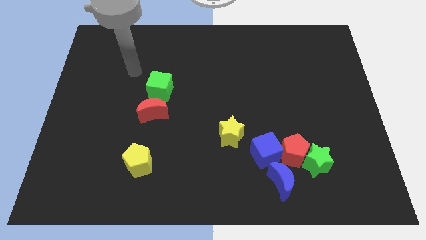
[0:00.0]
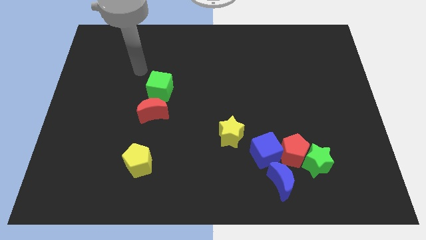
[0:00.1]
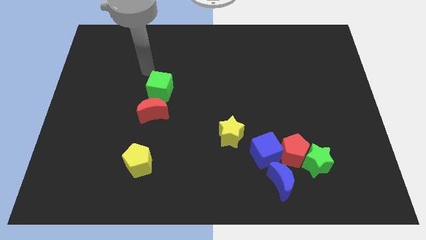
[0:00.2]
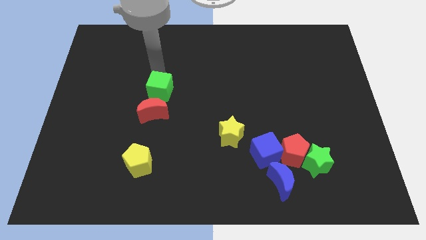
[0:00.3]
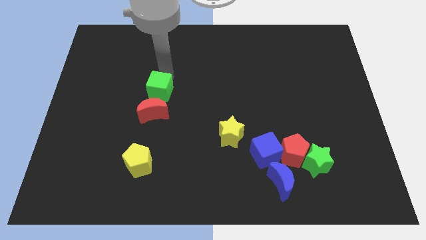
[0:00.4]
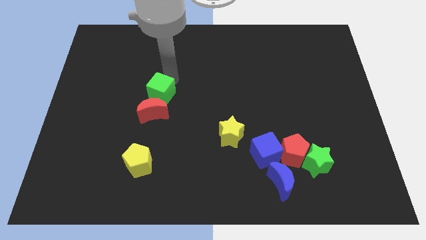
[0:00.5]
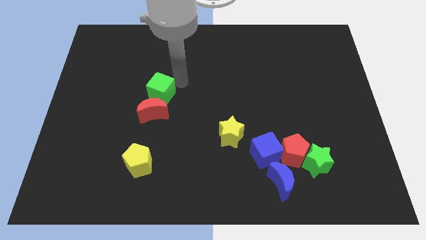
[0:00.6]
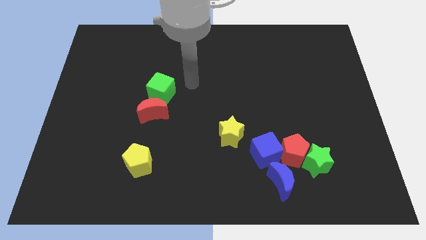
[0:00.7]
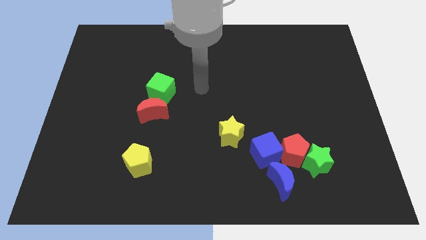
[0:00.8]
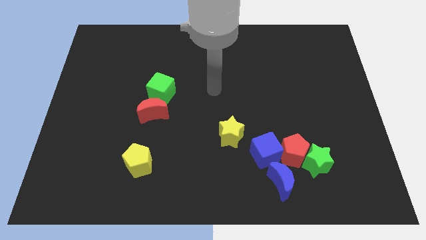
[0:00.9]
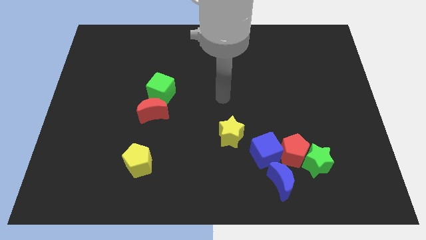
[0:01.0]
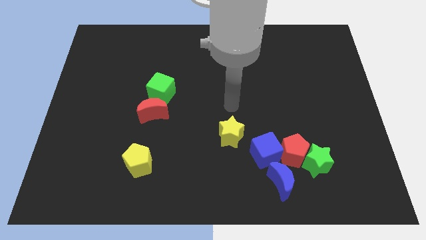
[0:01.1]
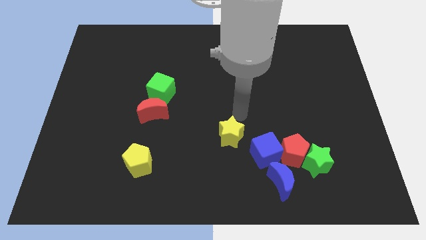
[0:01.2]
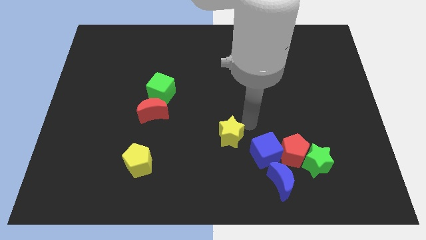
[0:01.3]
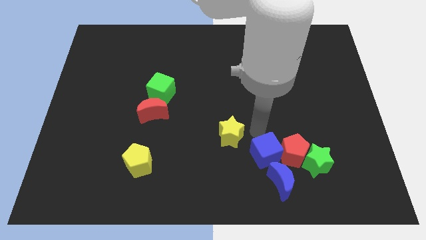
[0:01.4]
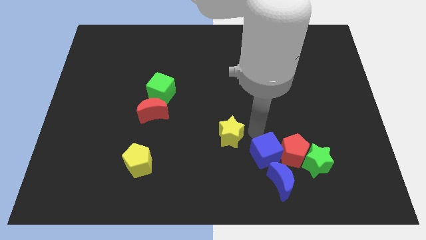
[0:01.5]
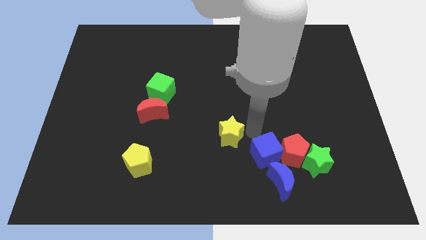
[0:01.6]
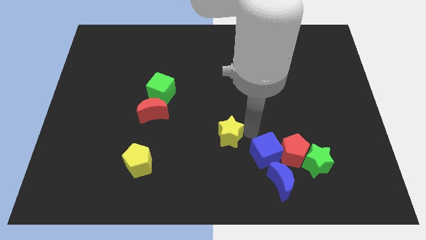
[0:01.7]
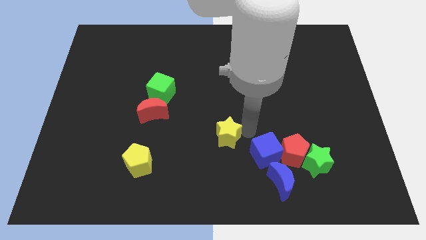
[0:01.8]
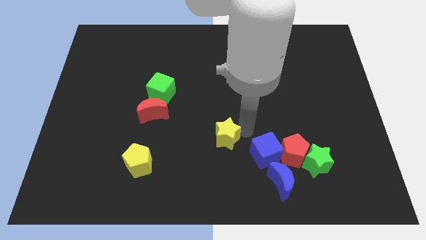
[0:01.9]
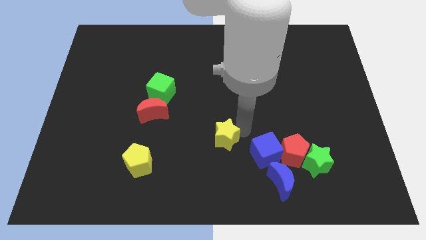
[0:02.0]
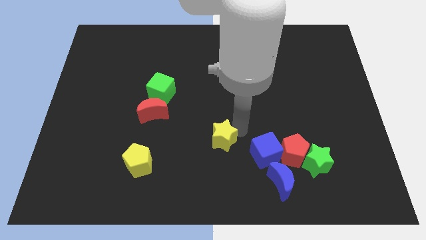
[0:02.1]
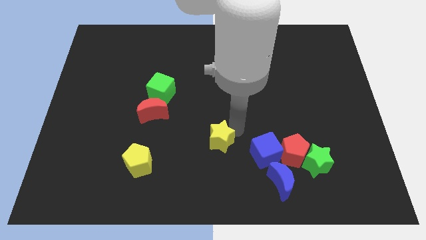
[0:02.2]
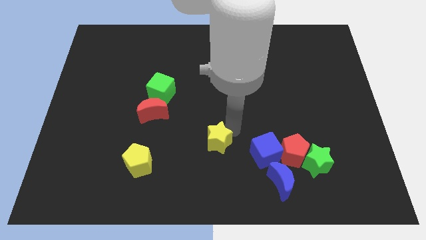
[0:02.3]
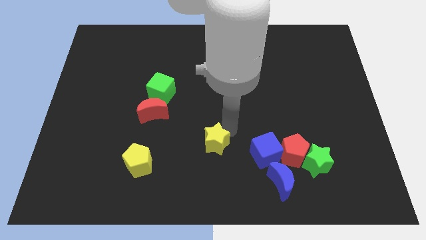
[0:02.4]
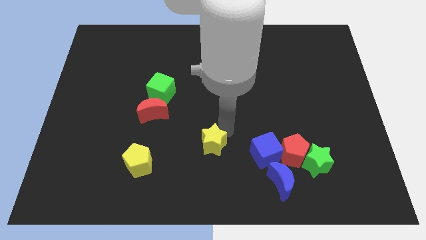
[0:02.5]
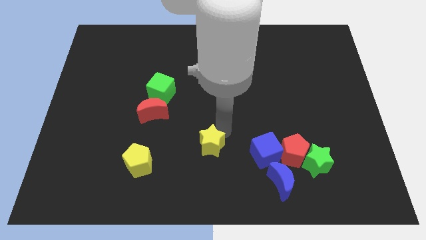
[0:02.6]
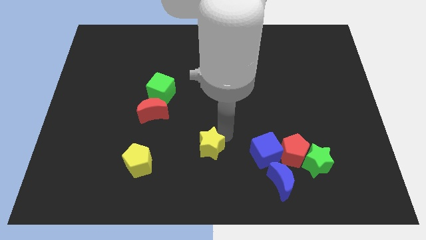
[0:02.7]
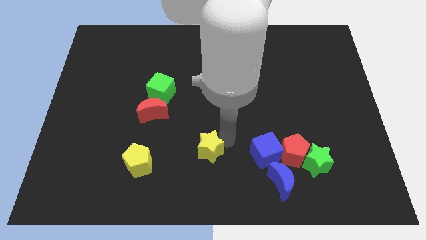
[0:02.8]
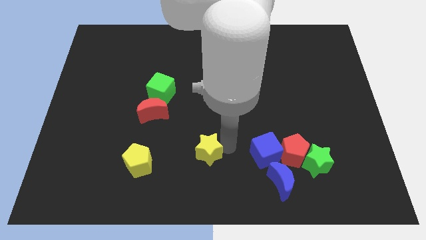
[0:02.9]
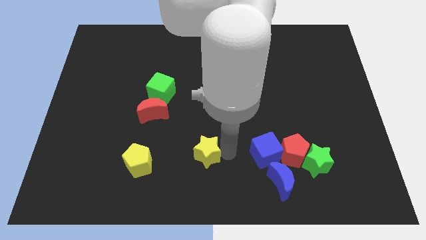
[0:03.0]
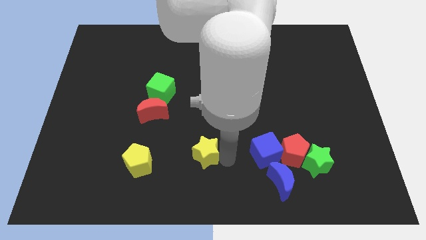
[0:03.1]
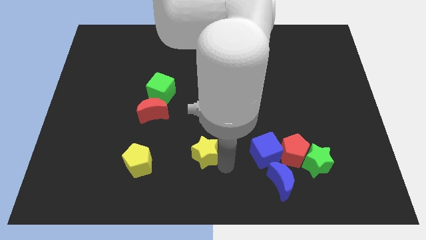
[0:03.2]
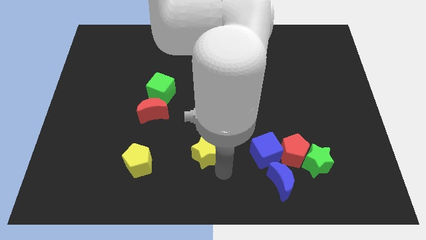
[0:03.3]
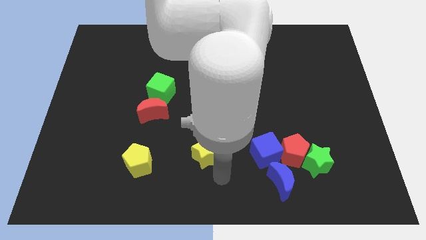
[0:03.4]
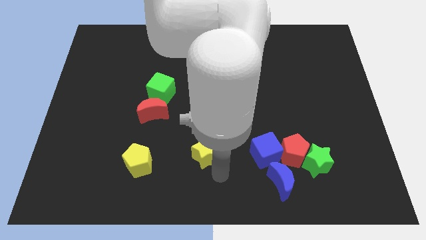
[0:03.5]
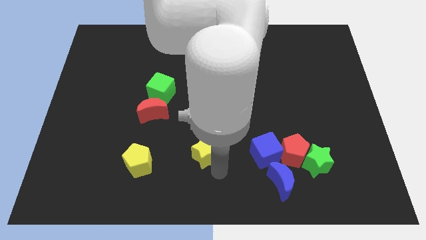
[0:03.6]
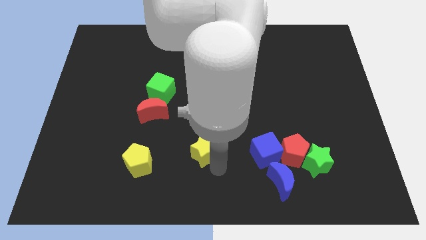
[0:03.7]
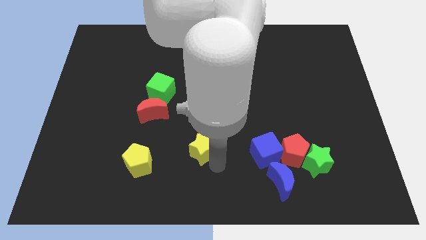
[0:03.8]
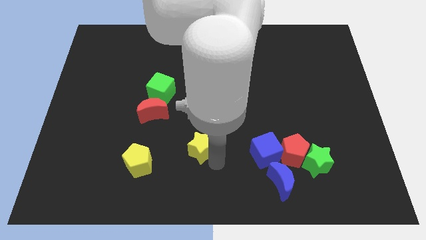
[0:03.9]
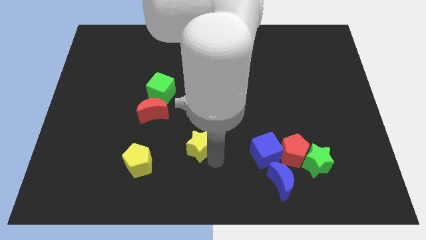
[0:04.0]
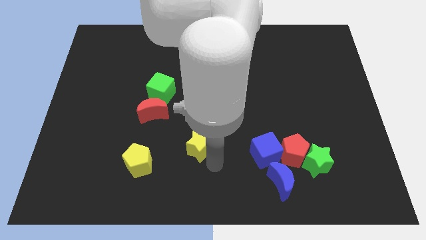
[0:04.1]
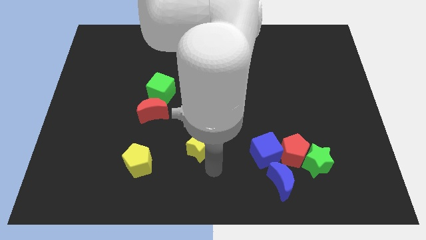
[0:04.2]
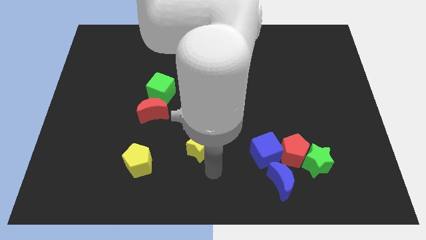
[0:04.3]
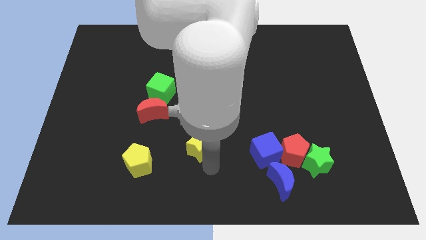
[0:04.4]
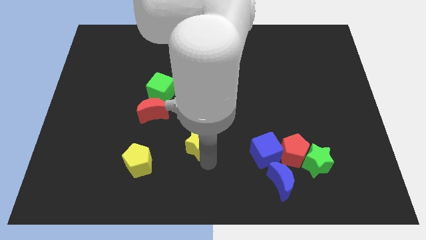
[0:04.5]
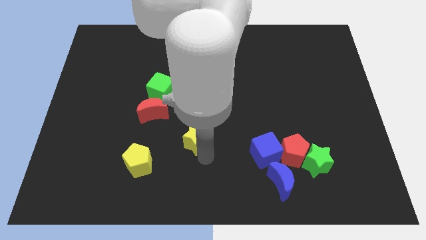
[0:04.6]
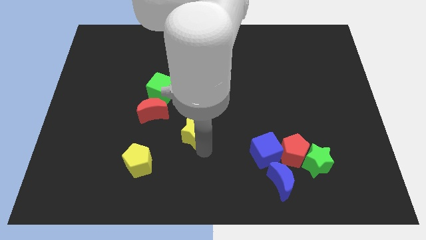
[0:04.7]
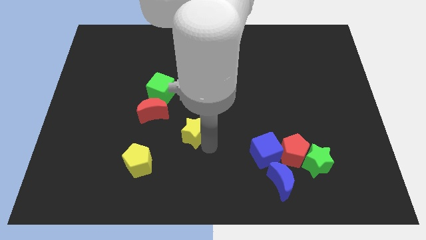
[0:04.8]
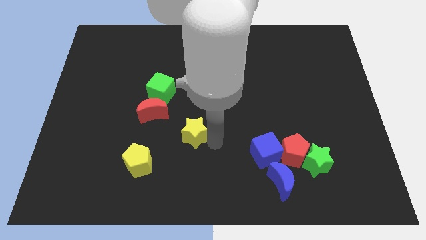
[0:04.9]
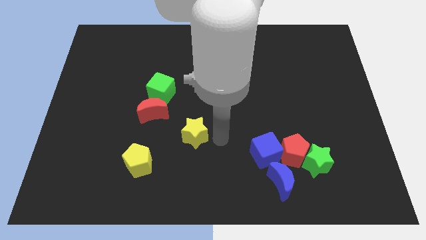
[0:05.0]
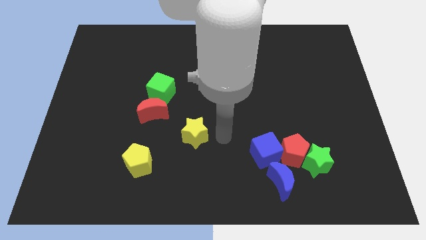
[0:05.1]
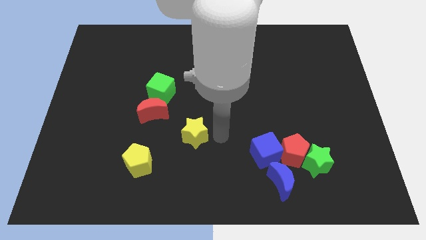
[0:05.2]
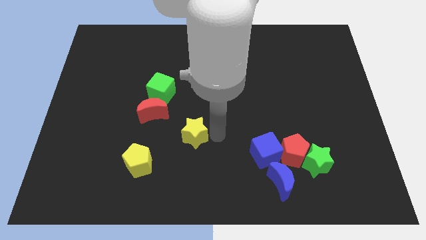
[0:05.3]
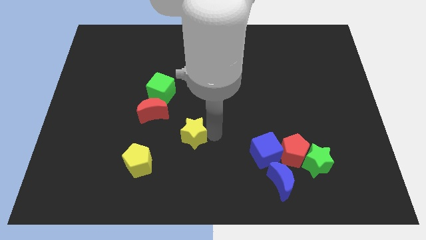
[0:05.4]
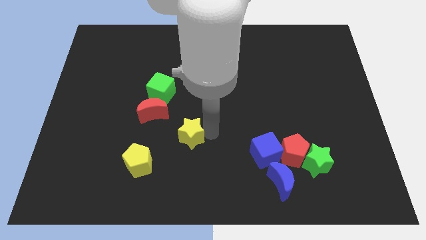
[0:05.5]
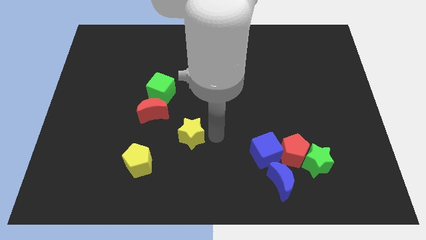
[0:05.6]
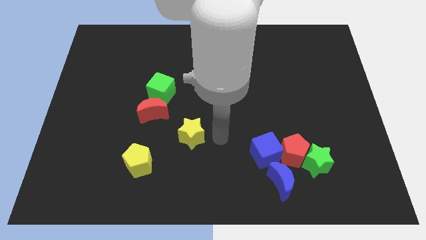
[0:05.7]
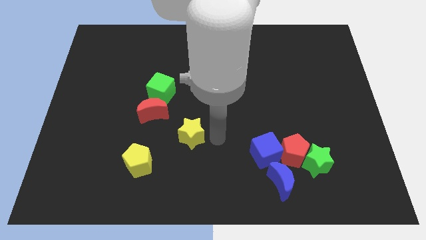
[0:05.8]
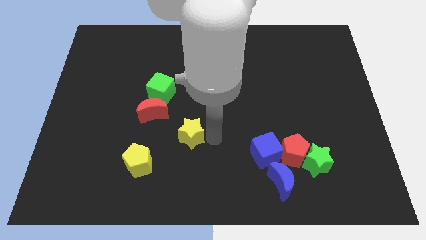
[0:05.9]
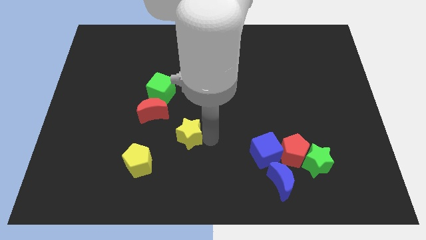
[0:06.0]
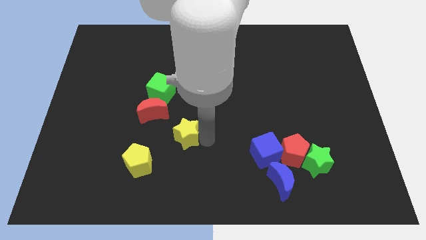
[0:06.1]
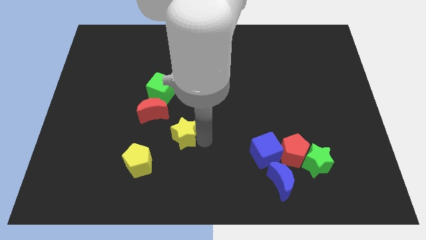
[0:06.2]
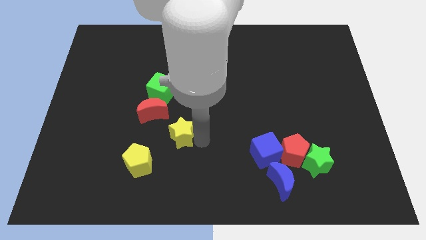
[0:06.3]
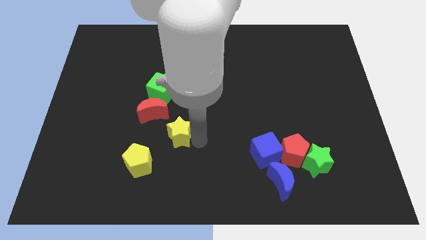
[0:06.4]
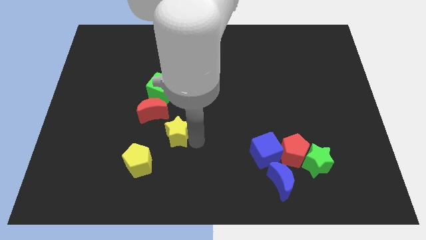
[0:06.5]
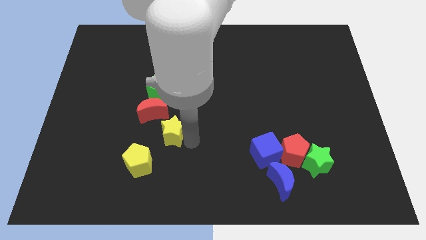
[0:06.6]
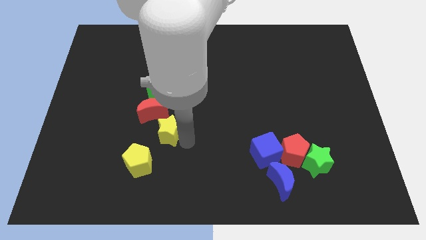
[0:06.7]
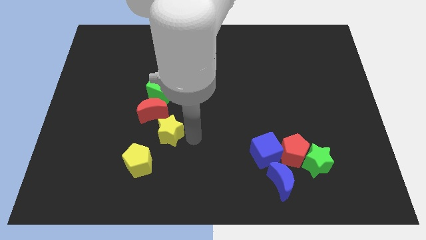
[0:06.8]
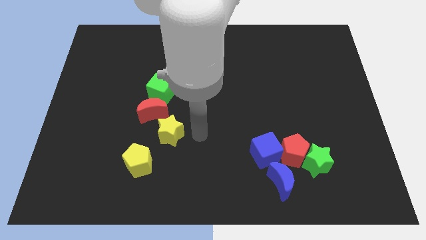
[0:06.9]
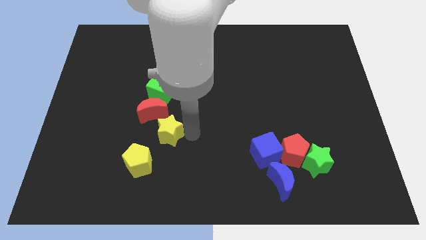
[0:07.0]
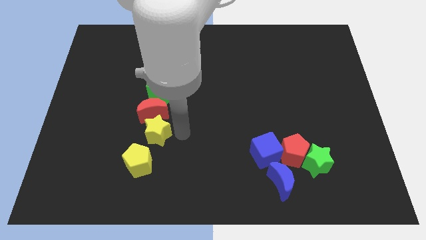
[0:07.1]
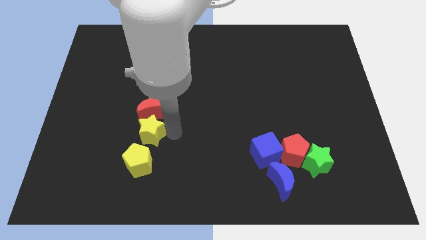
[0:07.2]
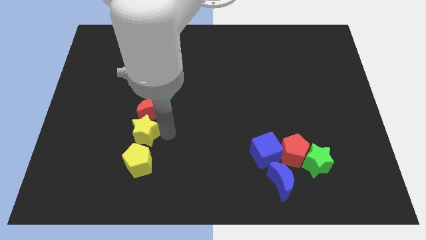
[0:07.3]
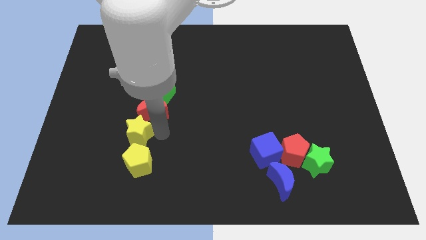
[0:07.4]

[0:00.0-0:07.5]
slide the yellow star left
